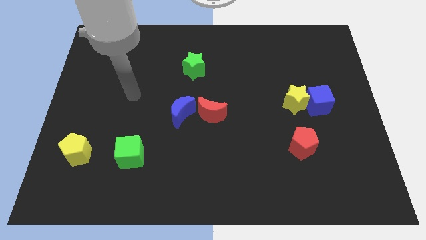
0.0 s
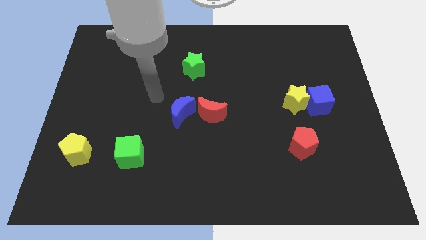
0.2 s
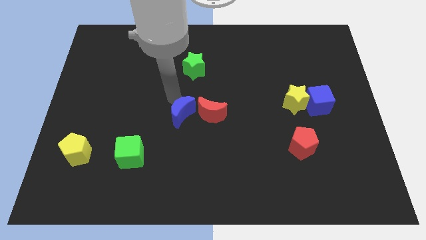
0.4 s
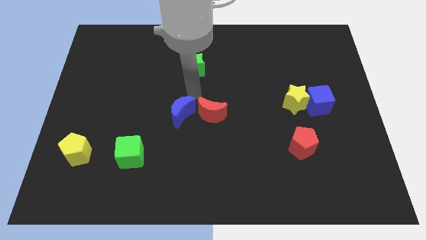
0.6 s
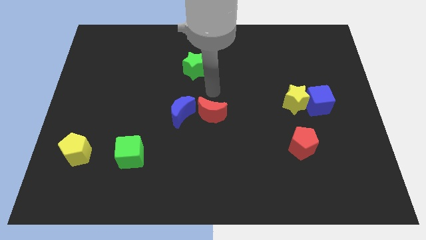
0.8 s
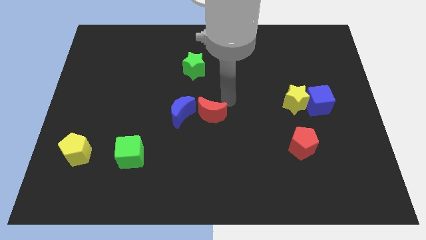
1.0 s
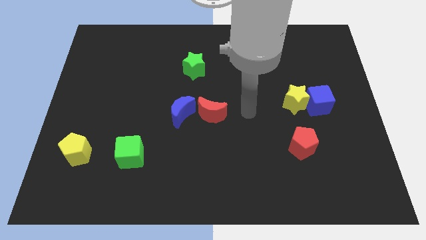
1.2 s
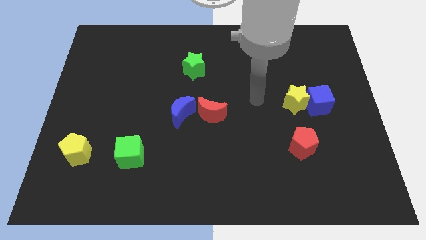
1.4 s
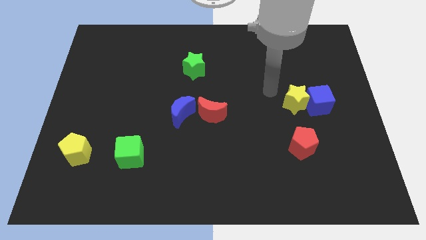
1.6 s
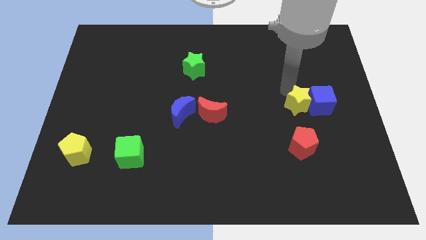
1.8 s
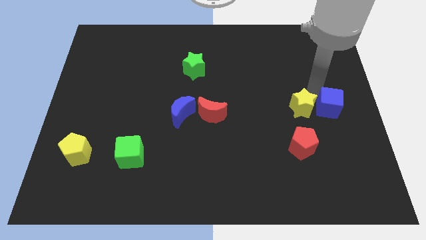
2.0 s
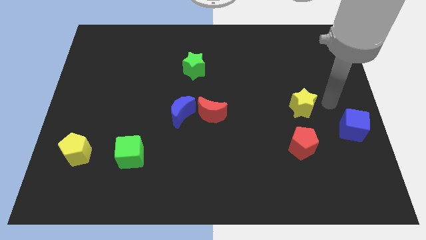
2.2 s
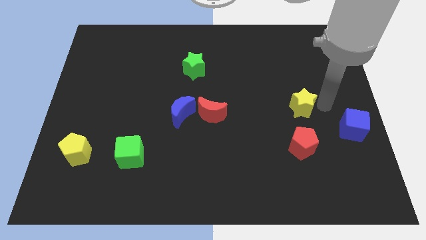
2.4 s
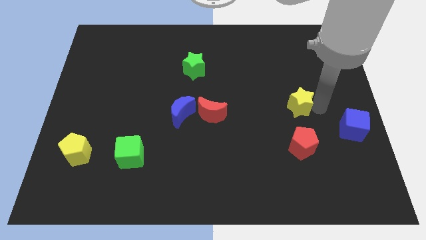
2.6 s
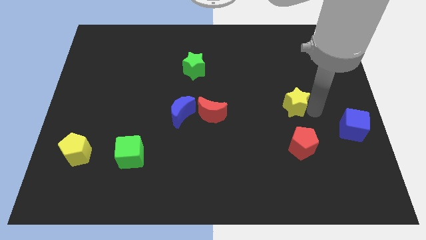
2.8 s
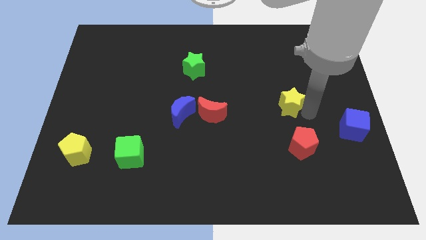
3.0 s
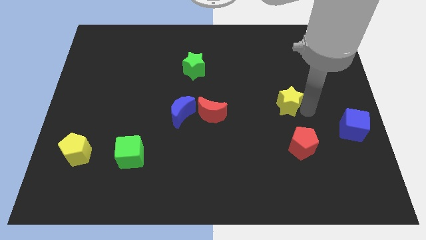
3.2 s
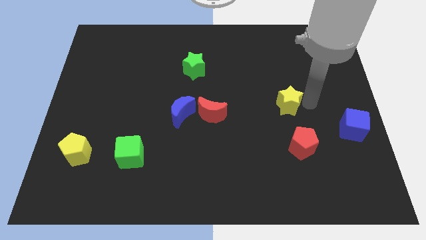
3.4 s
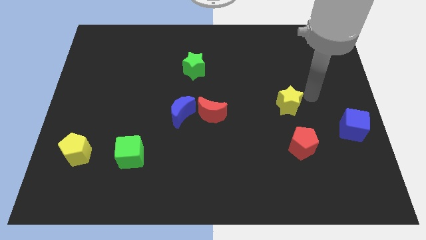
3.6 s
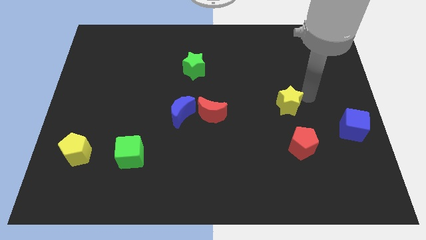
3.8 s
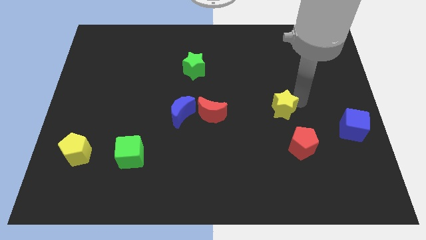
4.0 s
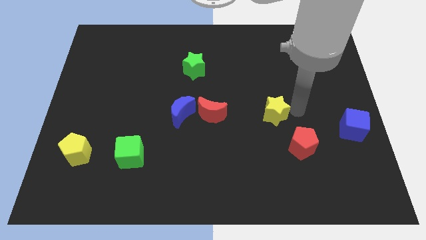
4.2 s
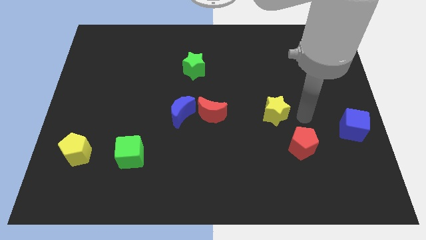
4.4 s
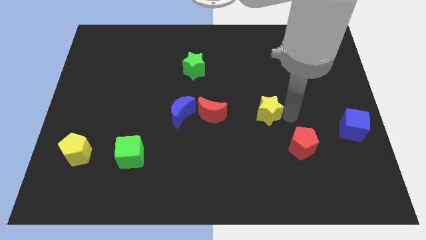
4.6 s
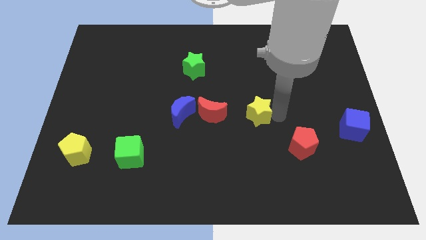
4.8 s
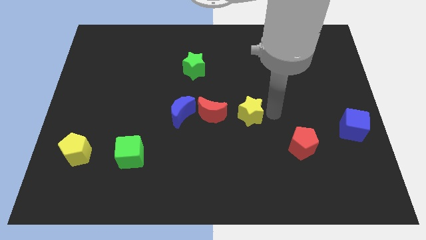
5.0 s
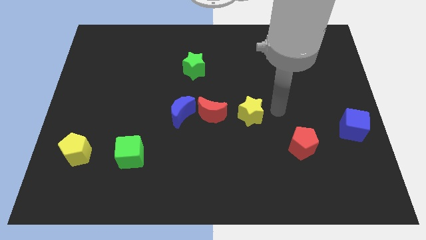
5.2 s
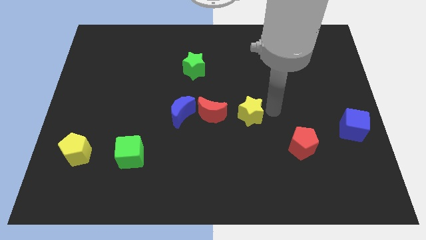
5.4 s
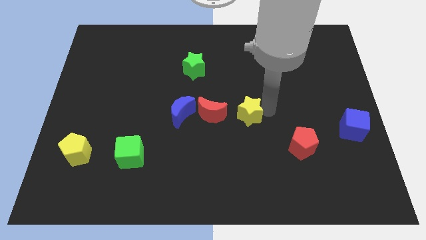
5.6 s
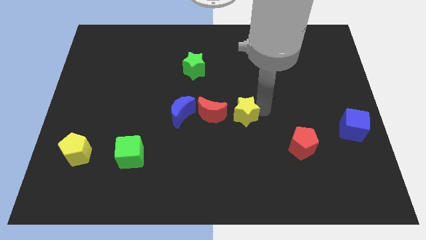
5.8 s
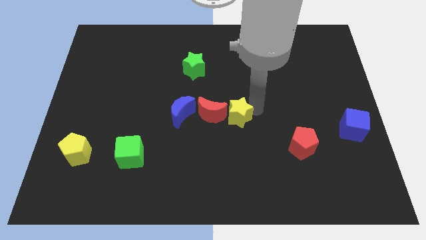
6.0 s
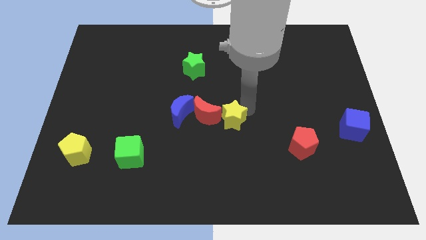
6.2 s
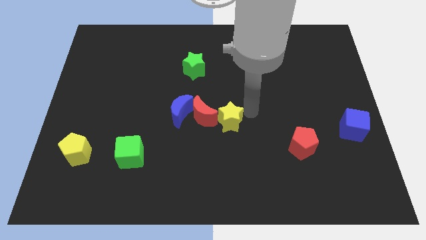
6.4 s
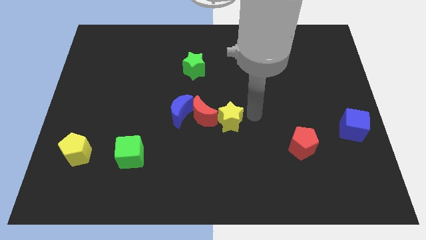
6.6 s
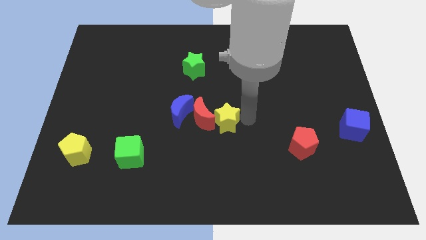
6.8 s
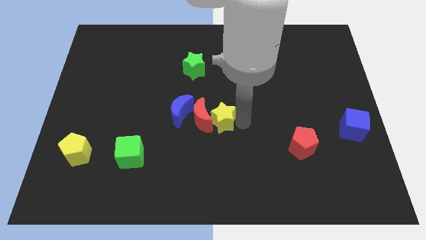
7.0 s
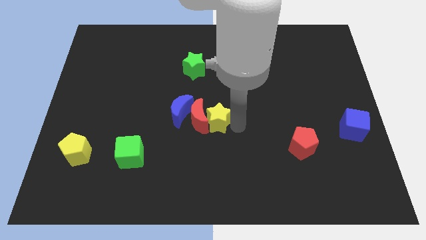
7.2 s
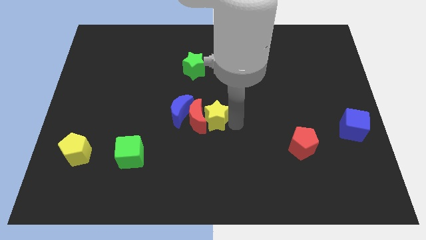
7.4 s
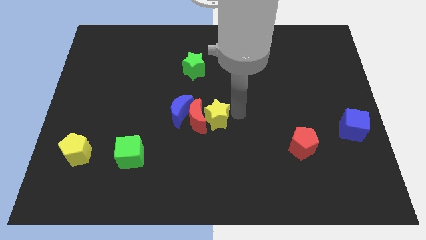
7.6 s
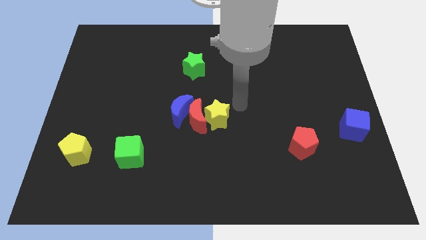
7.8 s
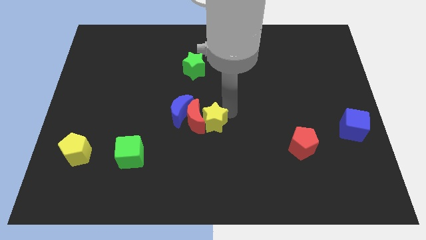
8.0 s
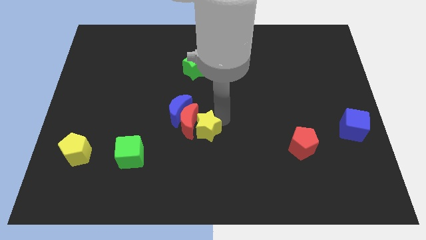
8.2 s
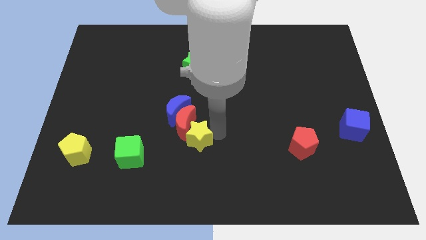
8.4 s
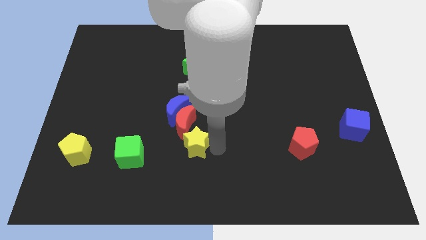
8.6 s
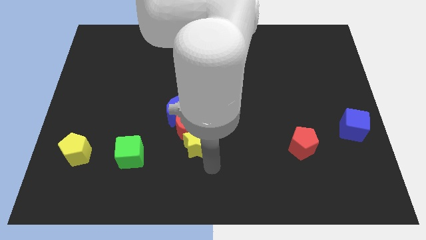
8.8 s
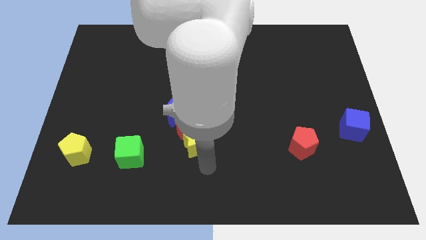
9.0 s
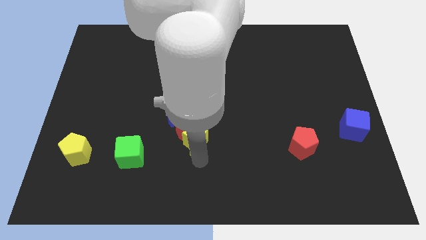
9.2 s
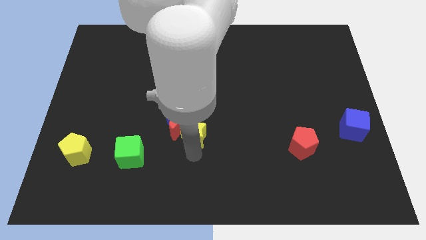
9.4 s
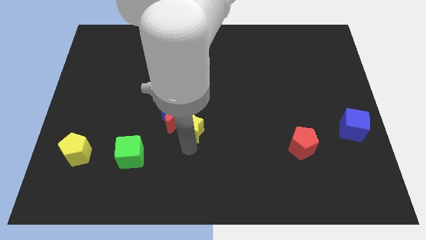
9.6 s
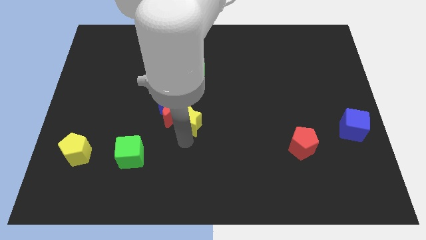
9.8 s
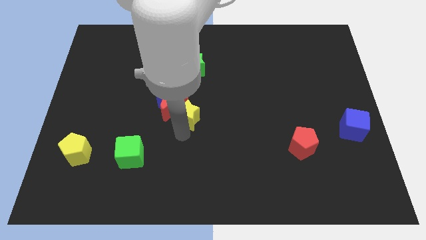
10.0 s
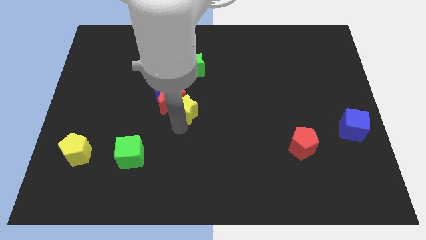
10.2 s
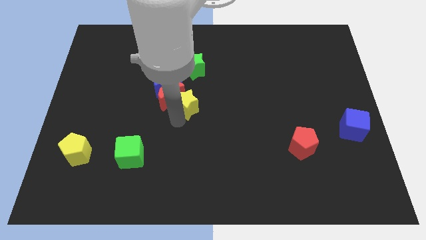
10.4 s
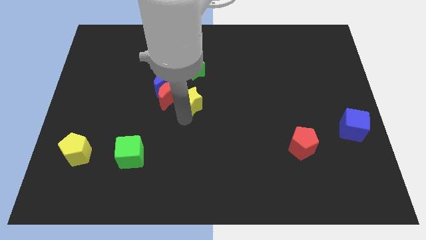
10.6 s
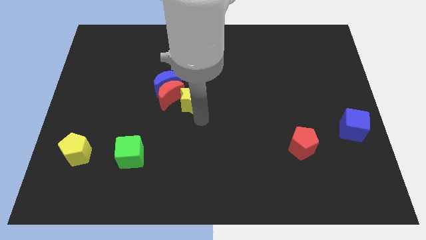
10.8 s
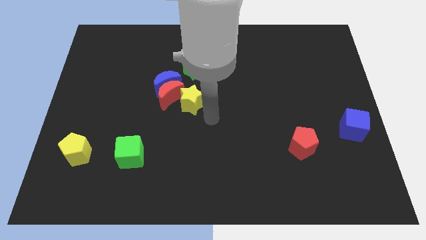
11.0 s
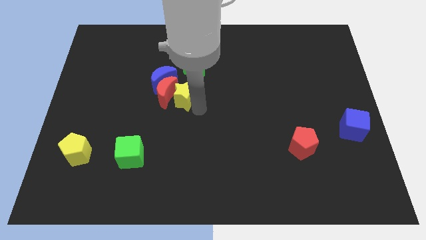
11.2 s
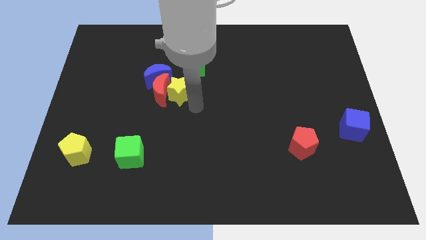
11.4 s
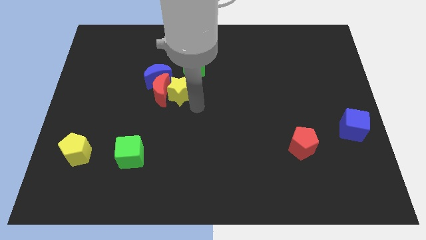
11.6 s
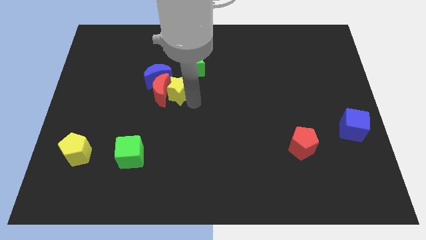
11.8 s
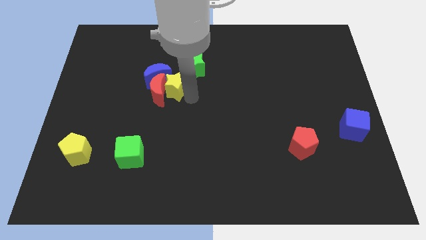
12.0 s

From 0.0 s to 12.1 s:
move the yellow star next to the blue moon

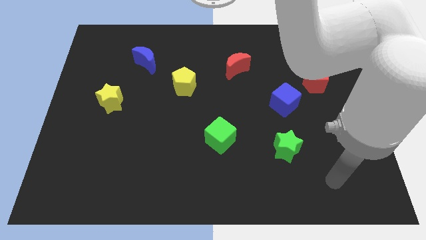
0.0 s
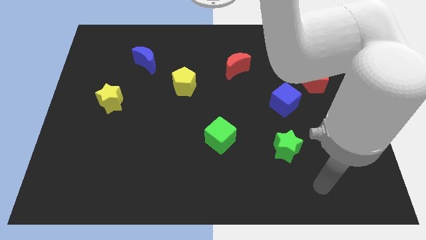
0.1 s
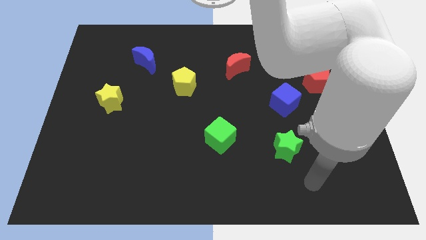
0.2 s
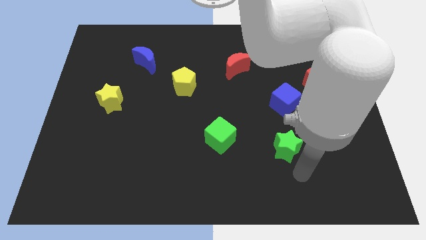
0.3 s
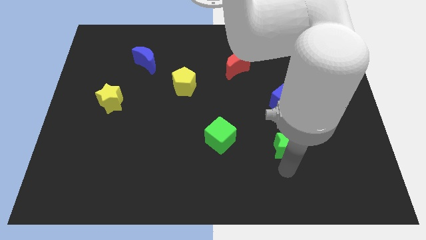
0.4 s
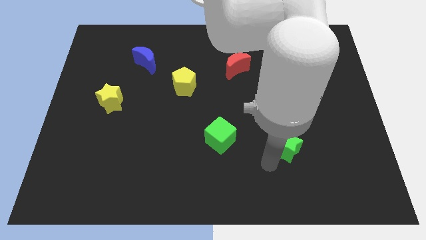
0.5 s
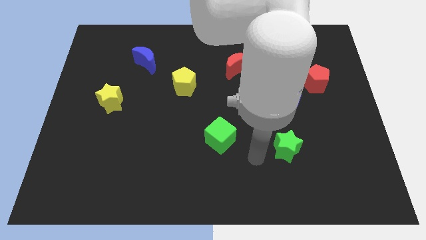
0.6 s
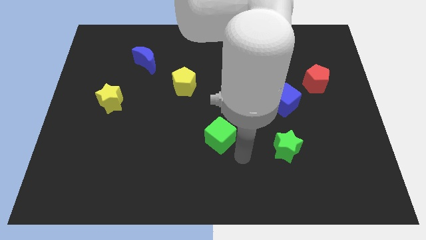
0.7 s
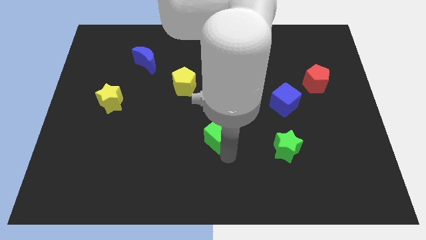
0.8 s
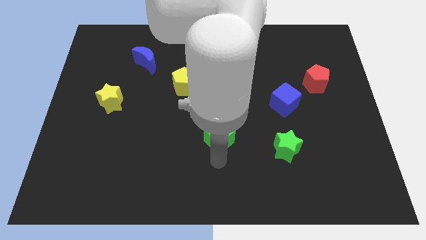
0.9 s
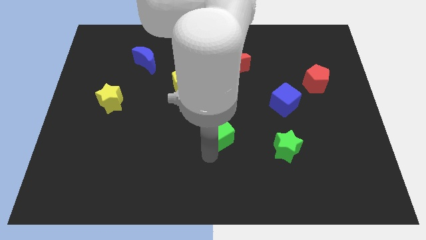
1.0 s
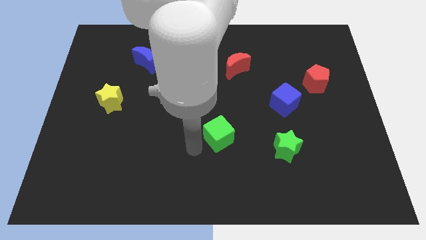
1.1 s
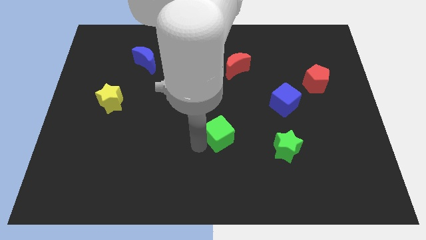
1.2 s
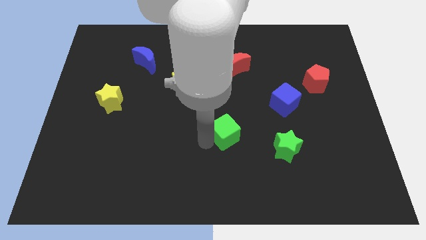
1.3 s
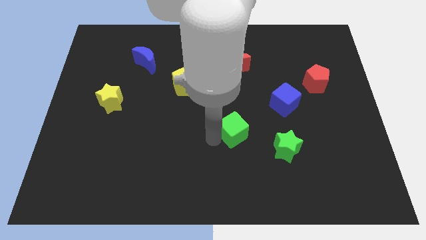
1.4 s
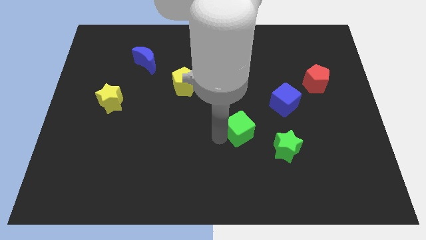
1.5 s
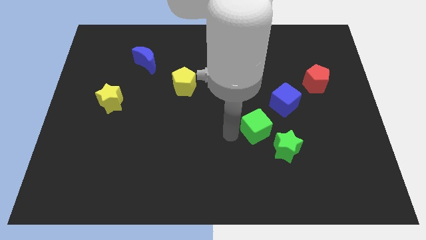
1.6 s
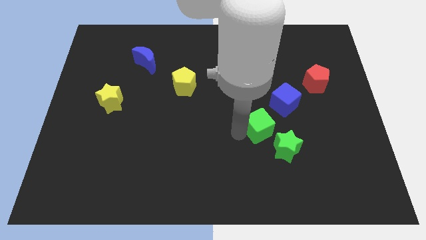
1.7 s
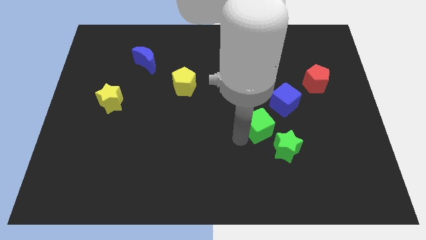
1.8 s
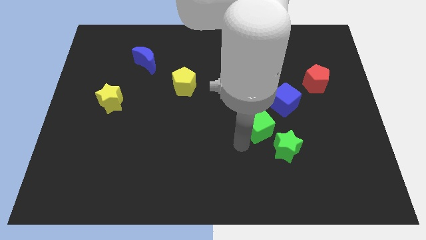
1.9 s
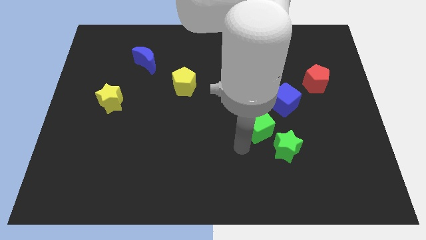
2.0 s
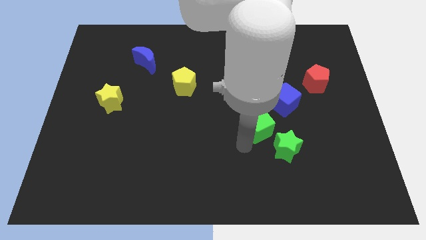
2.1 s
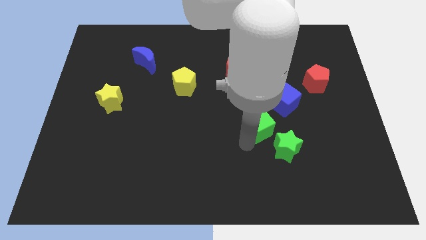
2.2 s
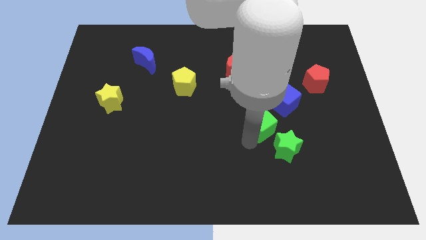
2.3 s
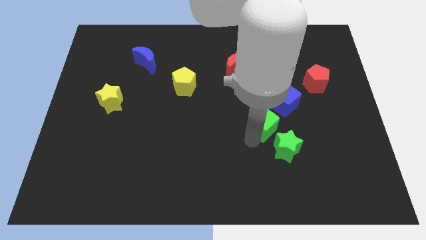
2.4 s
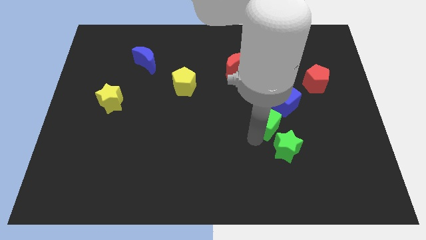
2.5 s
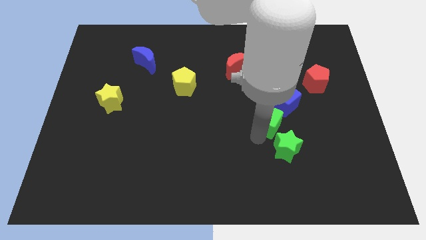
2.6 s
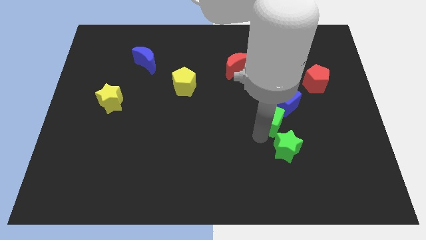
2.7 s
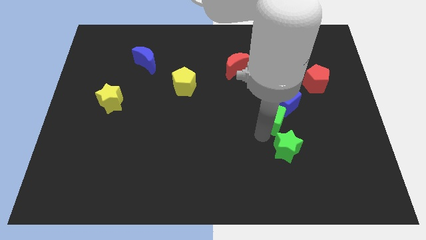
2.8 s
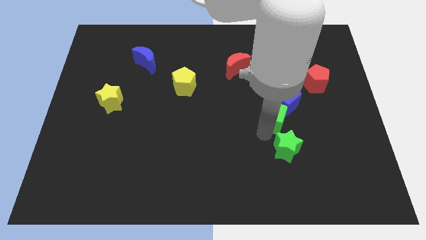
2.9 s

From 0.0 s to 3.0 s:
push the green cube close to the blue cube
